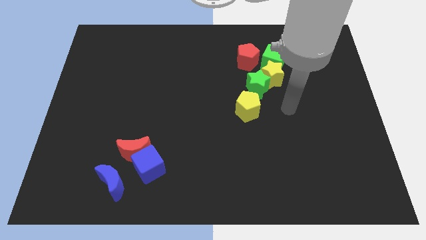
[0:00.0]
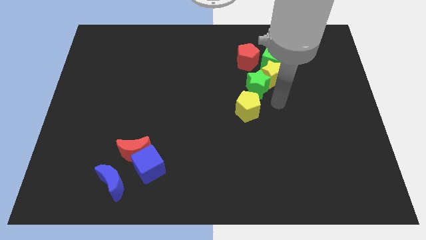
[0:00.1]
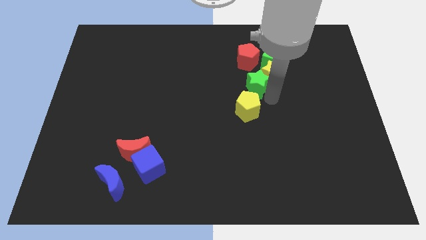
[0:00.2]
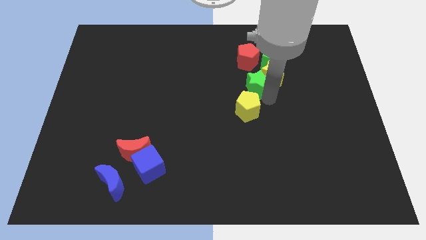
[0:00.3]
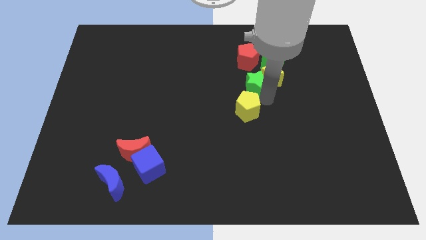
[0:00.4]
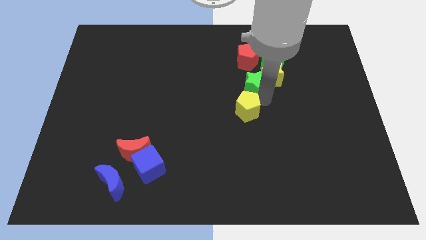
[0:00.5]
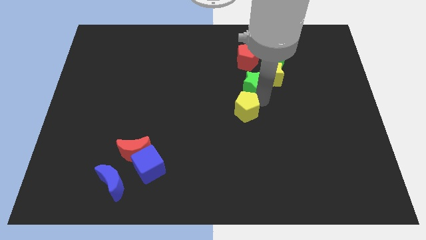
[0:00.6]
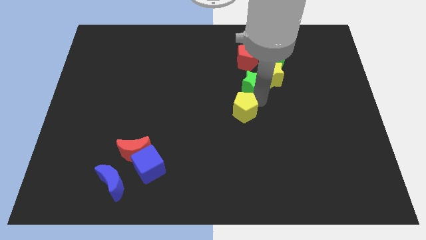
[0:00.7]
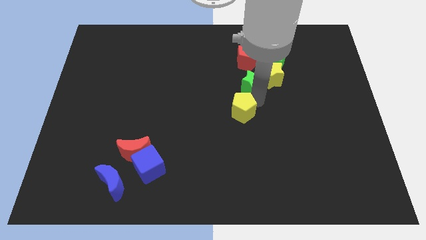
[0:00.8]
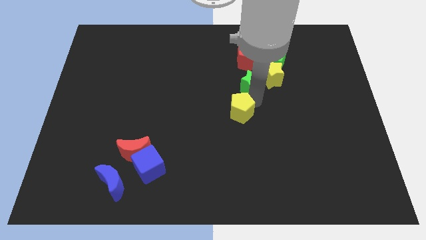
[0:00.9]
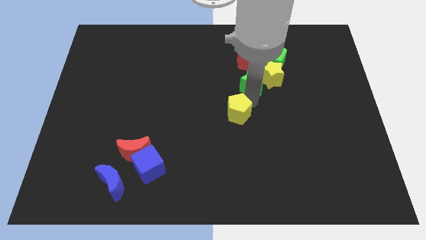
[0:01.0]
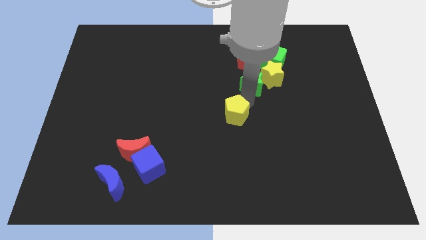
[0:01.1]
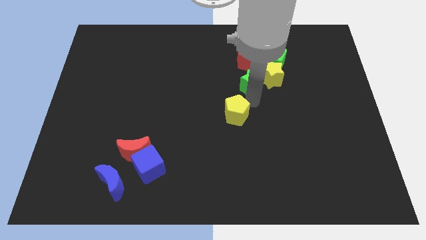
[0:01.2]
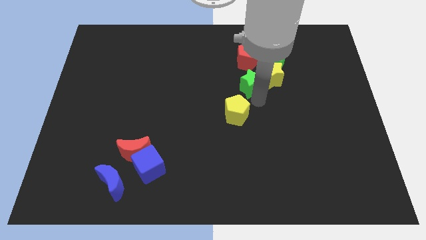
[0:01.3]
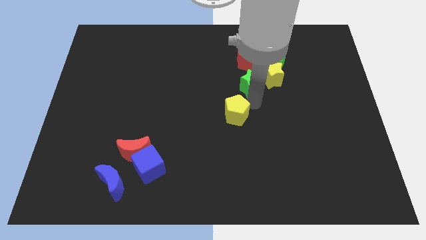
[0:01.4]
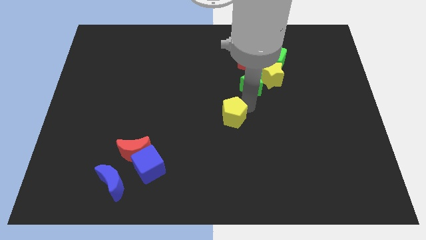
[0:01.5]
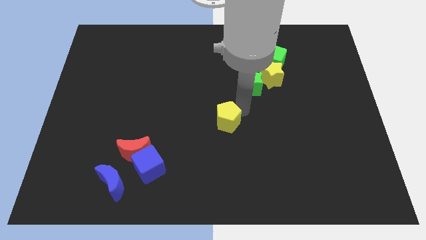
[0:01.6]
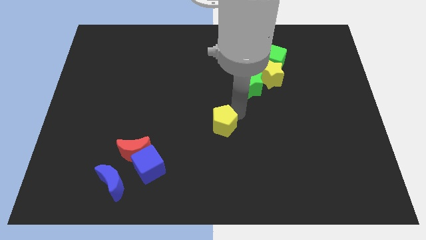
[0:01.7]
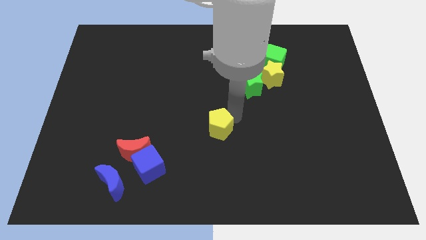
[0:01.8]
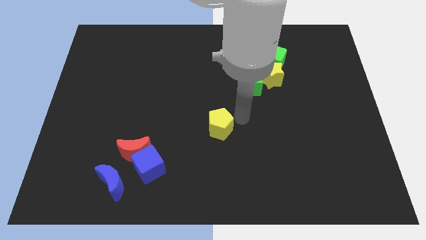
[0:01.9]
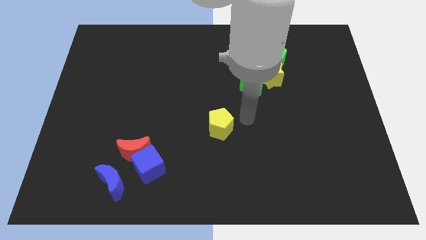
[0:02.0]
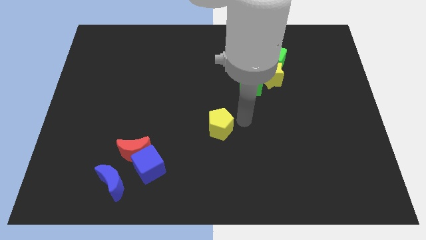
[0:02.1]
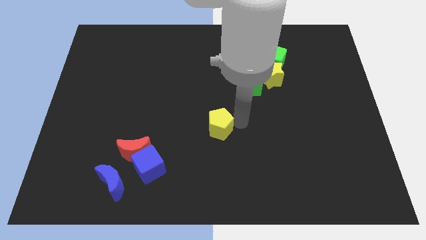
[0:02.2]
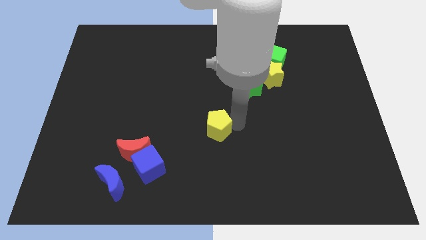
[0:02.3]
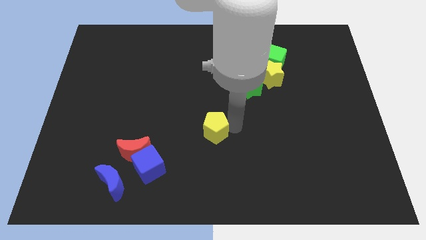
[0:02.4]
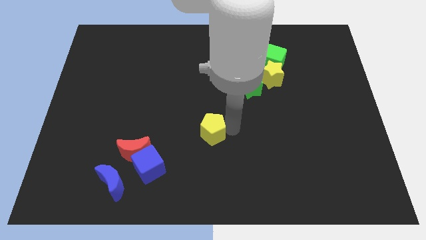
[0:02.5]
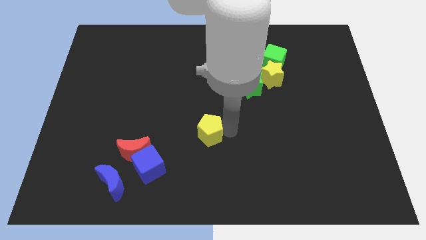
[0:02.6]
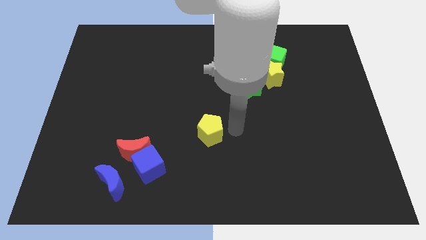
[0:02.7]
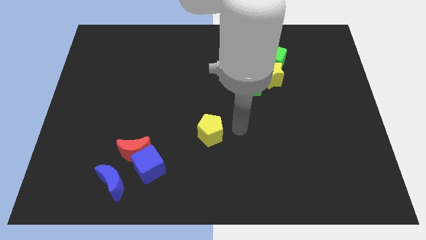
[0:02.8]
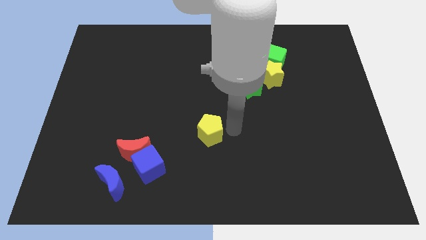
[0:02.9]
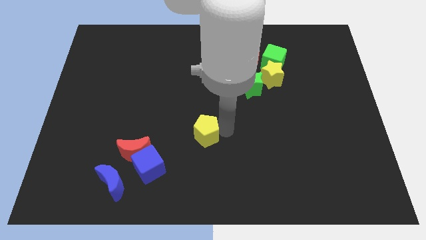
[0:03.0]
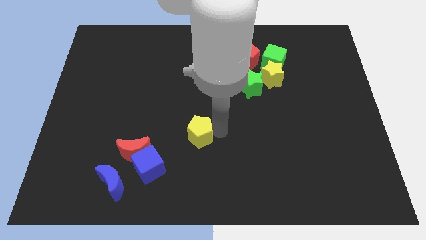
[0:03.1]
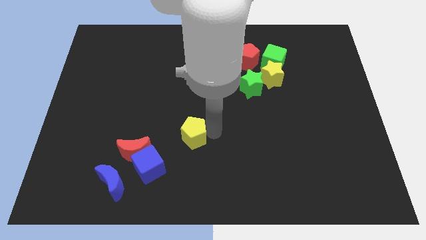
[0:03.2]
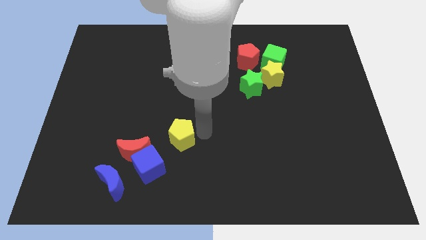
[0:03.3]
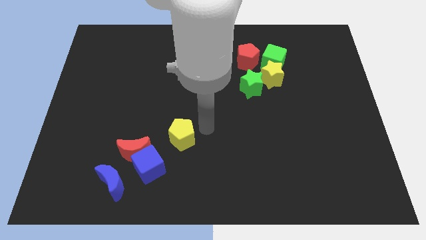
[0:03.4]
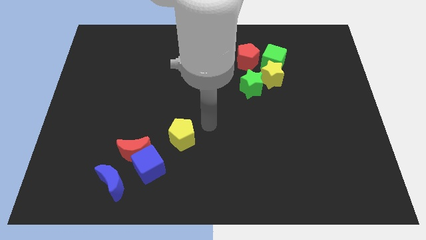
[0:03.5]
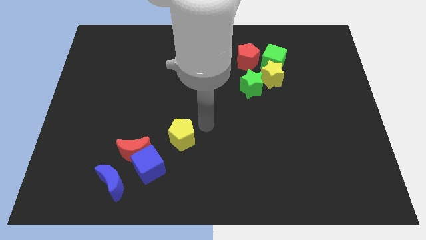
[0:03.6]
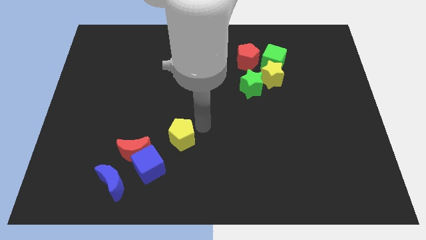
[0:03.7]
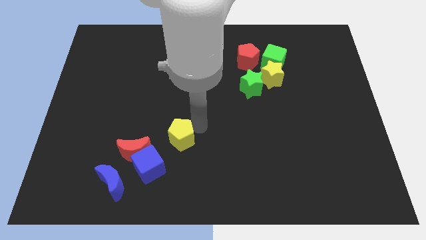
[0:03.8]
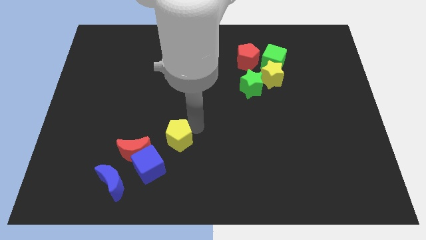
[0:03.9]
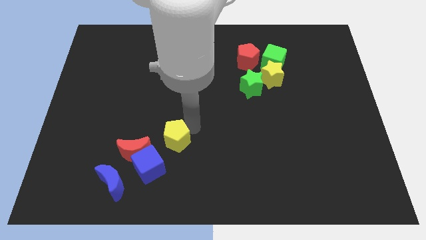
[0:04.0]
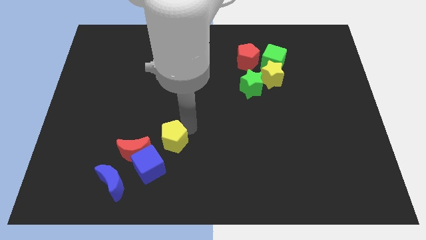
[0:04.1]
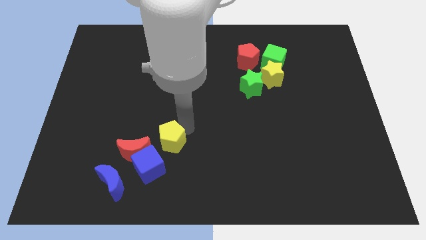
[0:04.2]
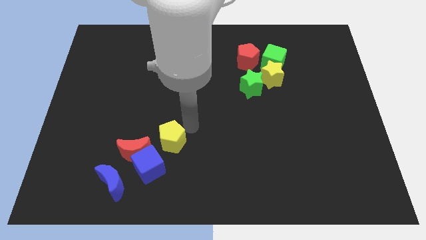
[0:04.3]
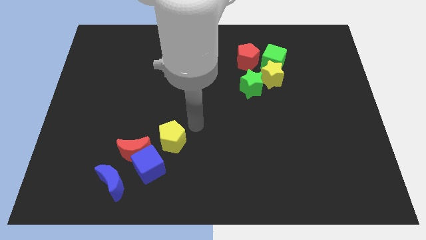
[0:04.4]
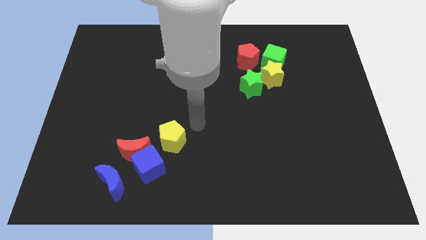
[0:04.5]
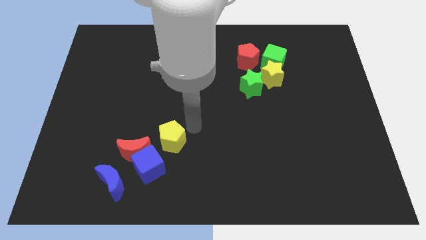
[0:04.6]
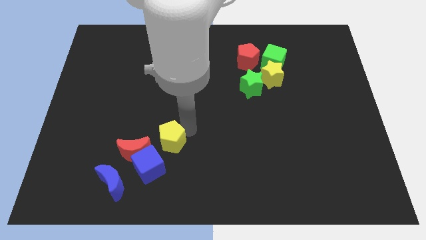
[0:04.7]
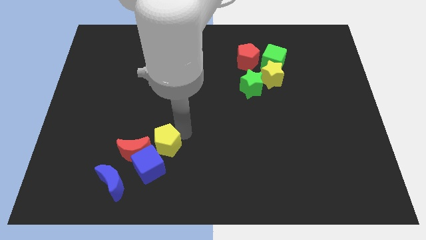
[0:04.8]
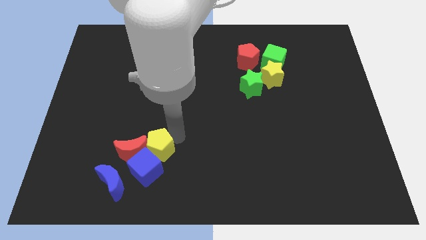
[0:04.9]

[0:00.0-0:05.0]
put the yellow pentagon to the top right of the blue moon

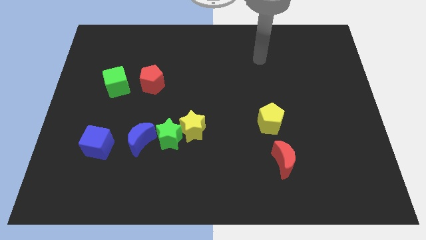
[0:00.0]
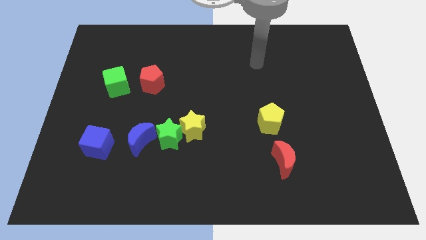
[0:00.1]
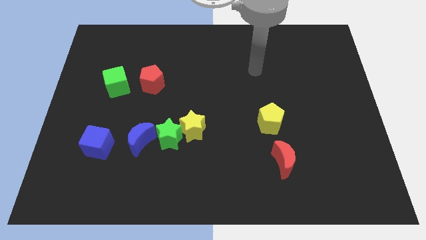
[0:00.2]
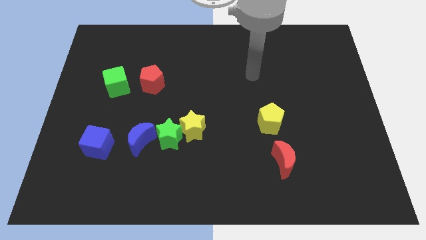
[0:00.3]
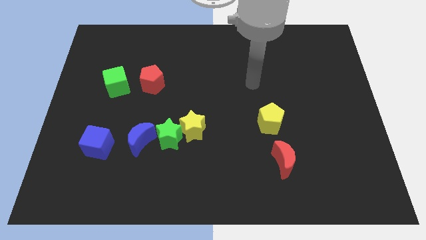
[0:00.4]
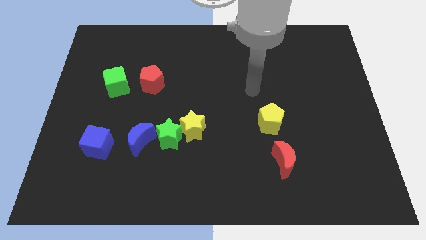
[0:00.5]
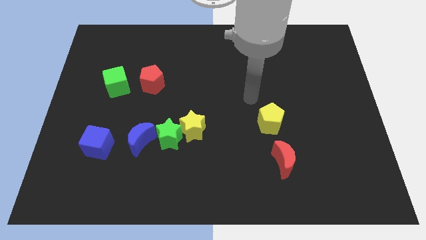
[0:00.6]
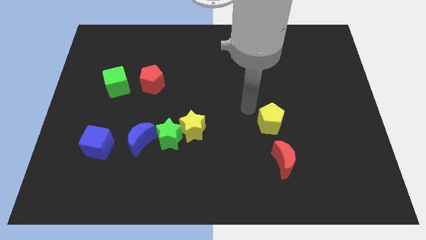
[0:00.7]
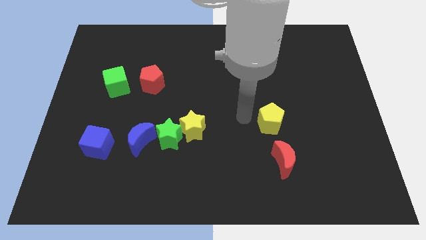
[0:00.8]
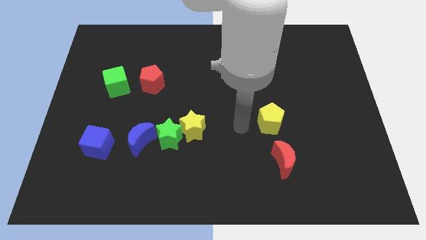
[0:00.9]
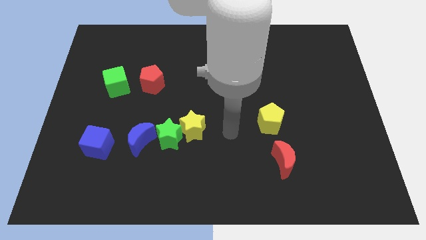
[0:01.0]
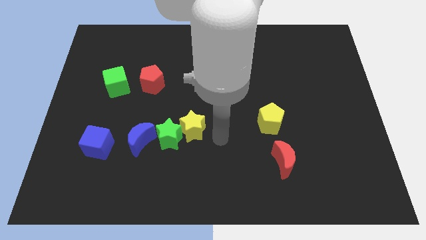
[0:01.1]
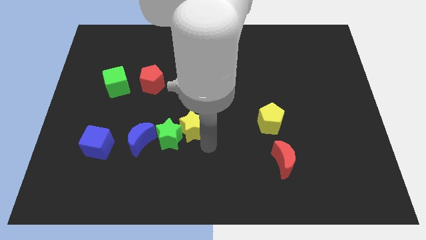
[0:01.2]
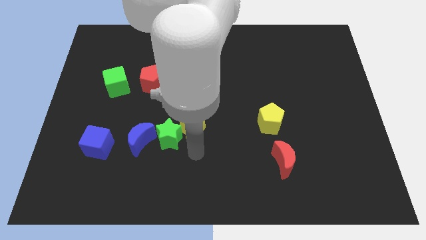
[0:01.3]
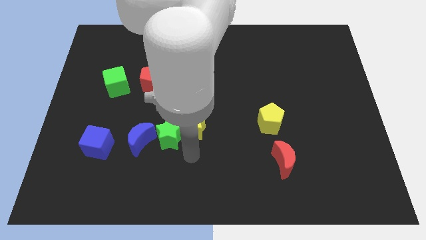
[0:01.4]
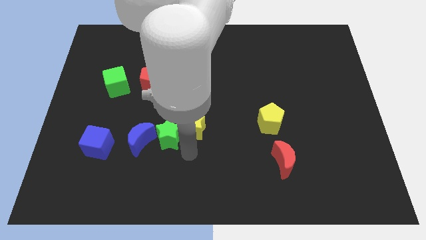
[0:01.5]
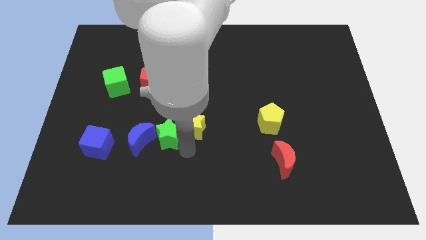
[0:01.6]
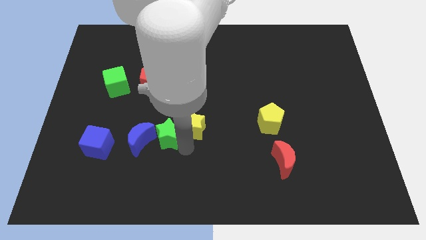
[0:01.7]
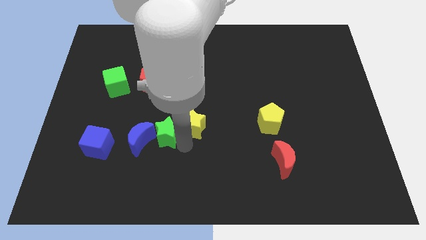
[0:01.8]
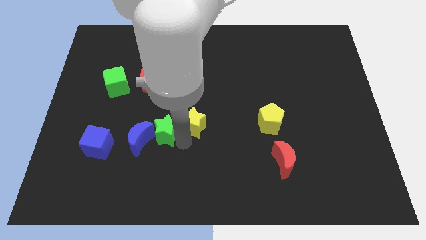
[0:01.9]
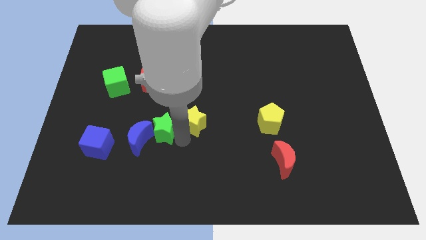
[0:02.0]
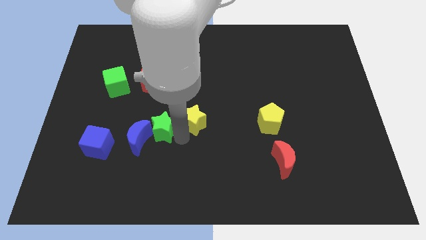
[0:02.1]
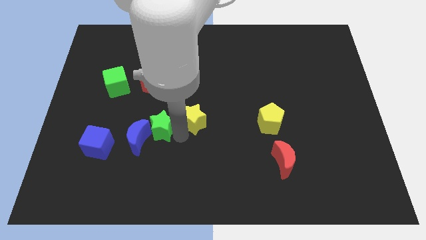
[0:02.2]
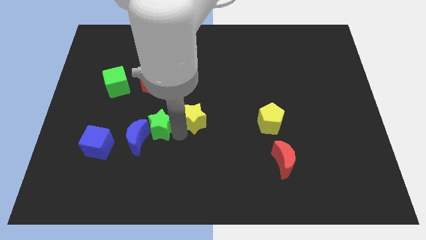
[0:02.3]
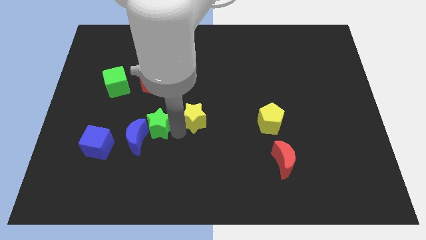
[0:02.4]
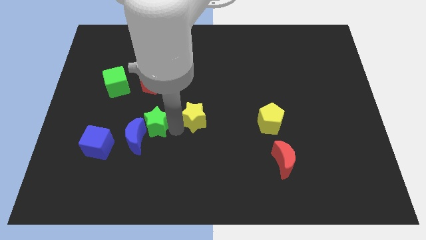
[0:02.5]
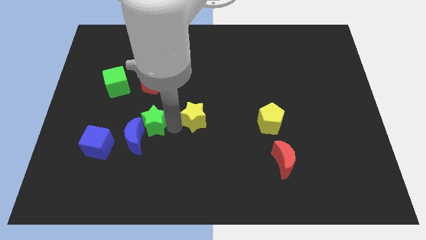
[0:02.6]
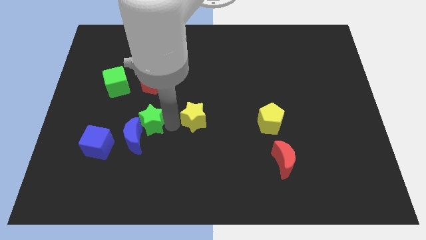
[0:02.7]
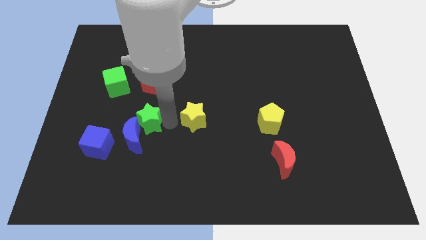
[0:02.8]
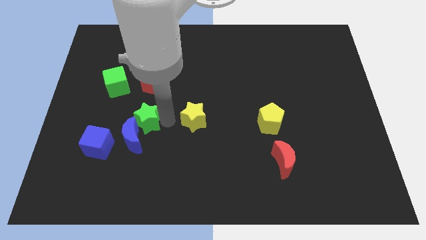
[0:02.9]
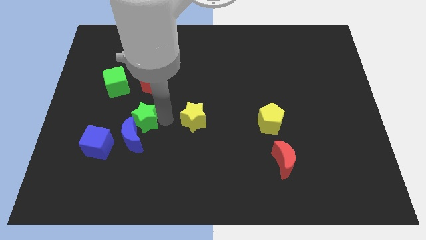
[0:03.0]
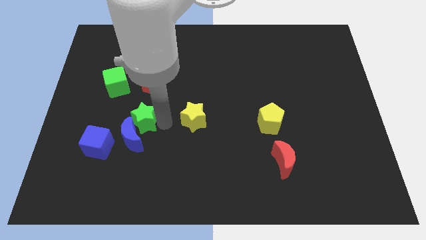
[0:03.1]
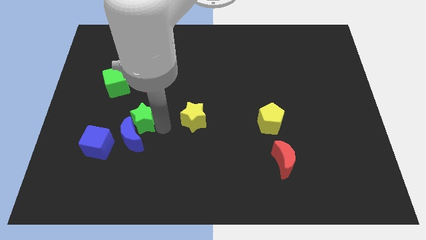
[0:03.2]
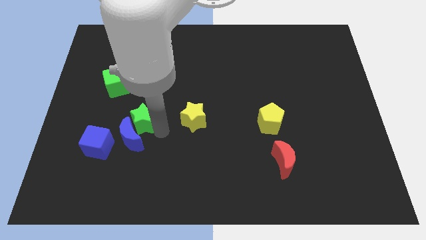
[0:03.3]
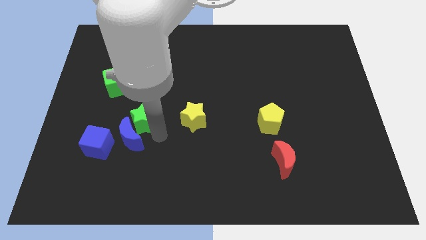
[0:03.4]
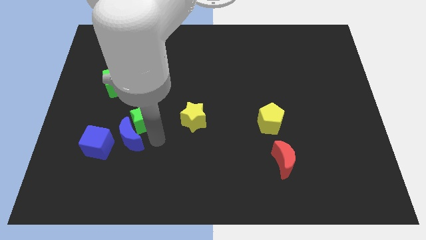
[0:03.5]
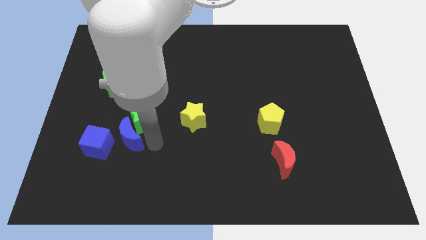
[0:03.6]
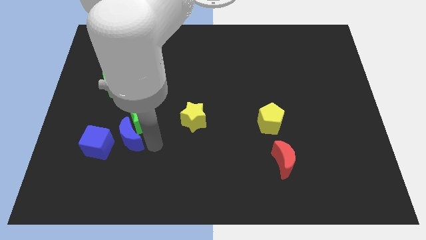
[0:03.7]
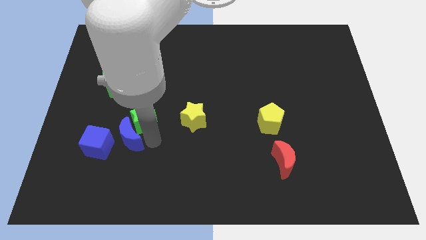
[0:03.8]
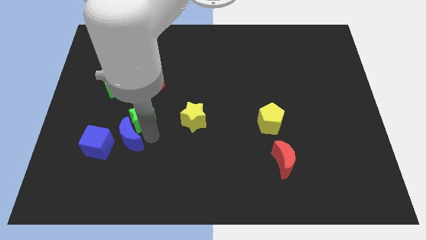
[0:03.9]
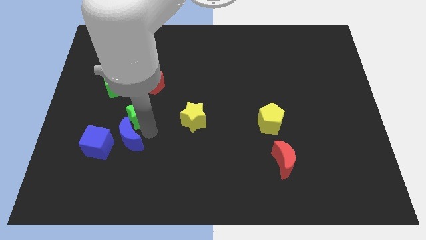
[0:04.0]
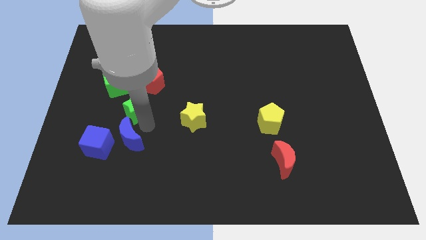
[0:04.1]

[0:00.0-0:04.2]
push the green star to the bottom left side of the red pentagon
